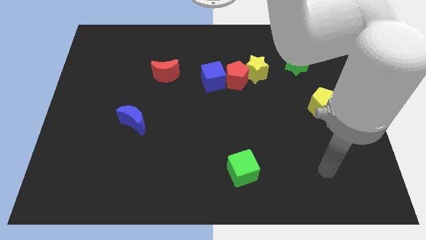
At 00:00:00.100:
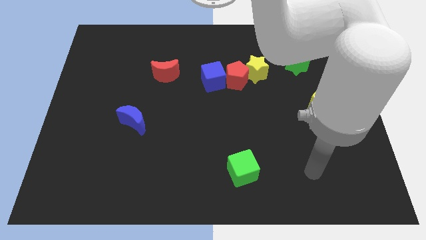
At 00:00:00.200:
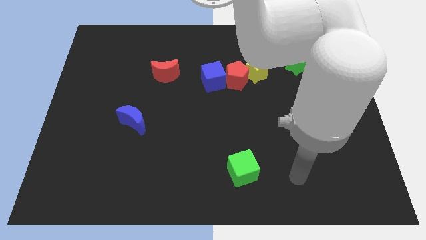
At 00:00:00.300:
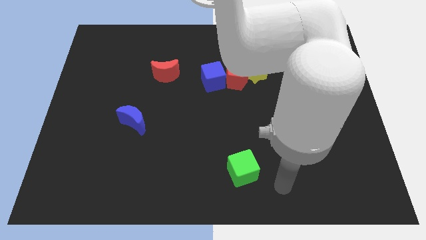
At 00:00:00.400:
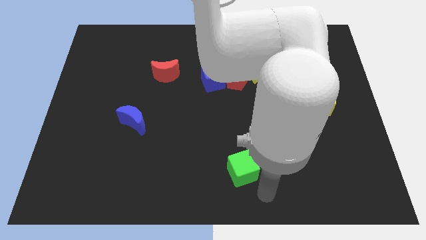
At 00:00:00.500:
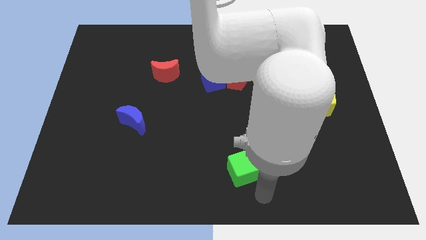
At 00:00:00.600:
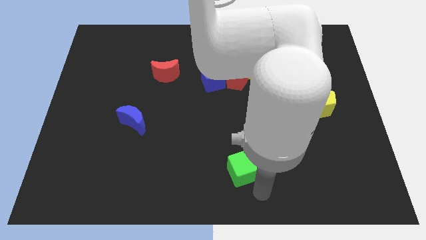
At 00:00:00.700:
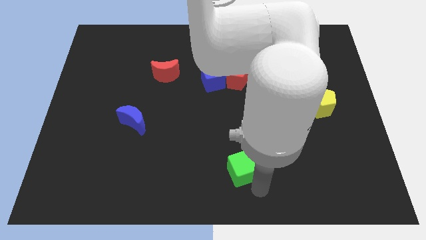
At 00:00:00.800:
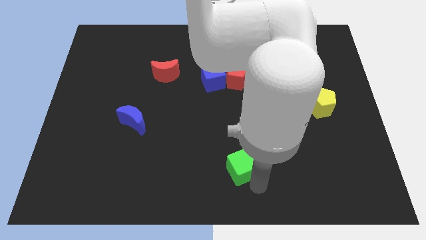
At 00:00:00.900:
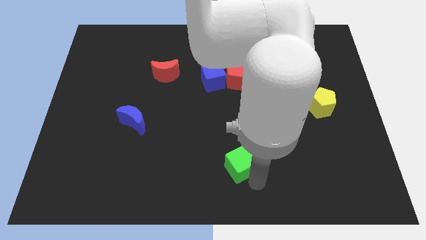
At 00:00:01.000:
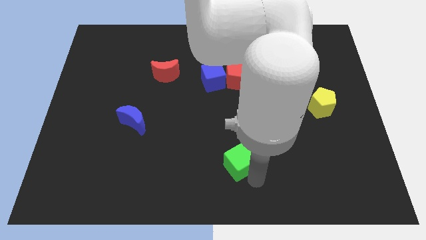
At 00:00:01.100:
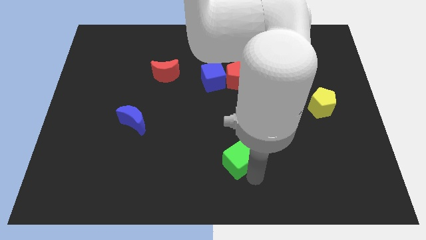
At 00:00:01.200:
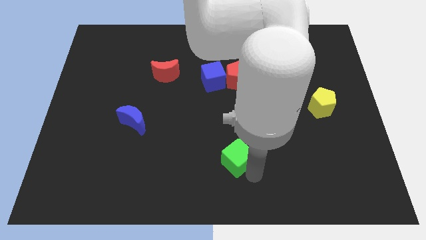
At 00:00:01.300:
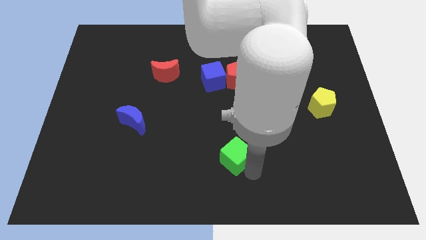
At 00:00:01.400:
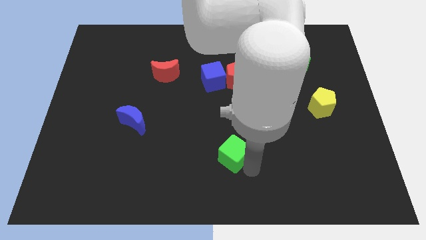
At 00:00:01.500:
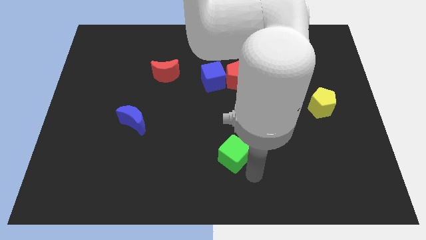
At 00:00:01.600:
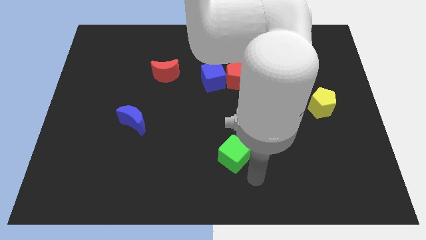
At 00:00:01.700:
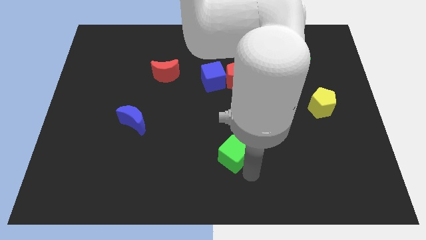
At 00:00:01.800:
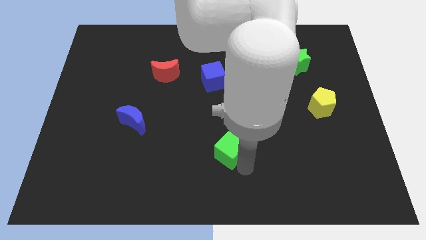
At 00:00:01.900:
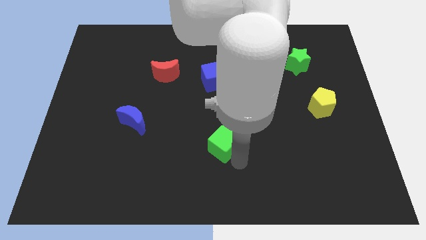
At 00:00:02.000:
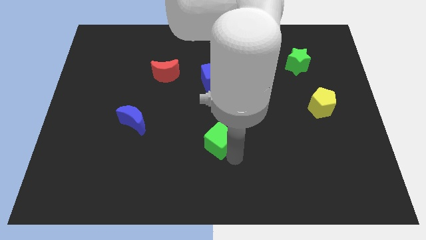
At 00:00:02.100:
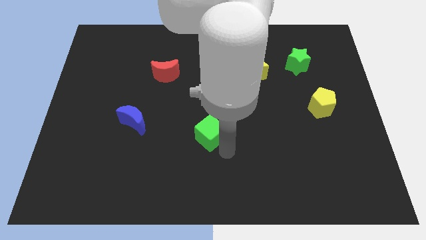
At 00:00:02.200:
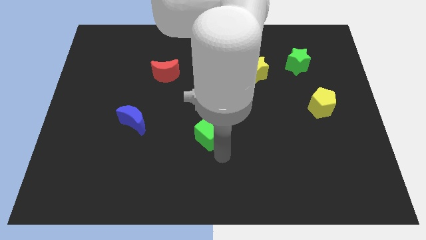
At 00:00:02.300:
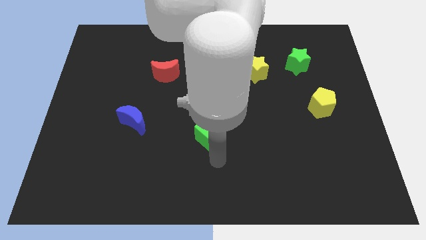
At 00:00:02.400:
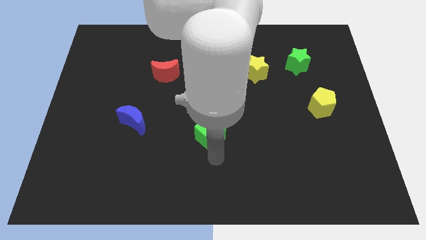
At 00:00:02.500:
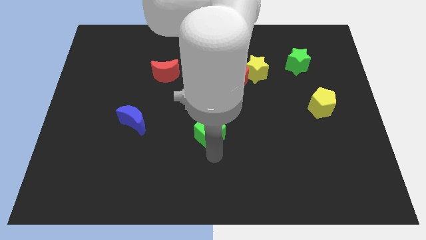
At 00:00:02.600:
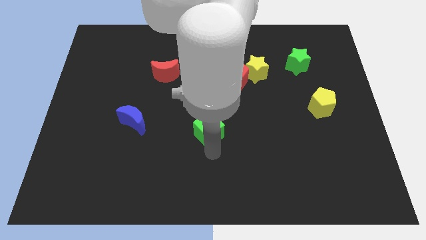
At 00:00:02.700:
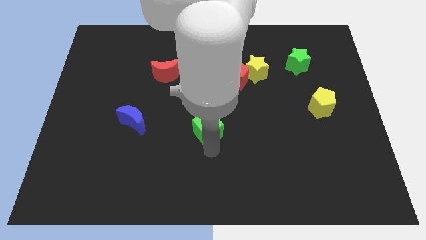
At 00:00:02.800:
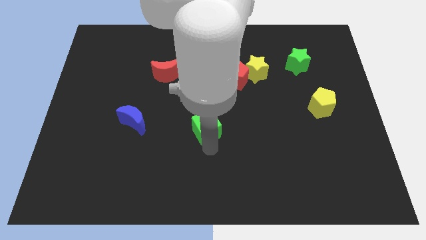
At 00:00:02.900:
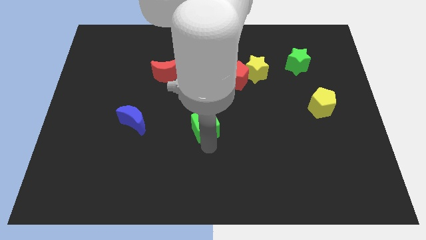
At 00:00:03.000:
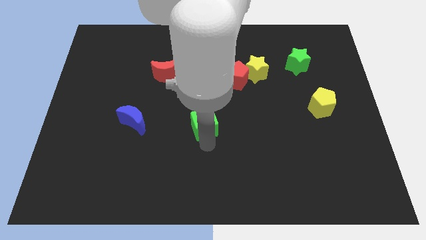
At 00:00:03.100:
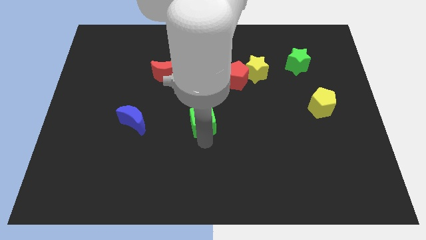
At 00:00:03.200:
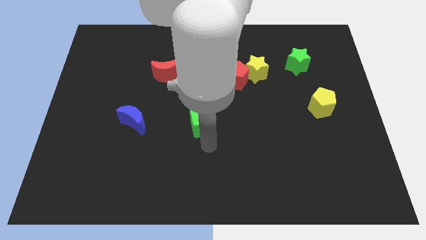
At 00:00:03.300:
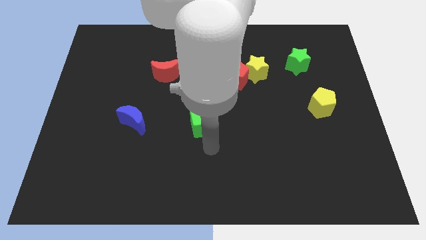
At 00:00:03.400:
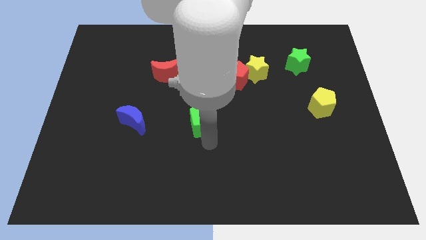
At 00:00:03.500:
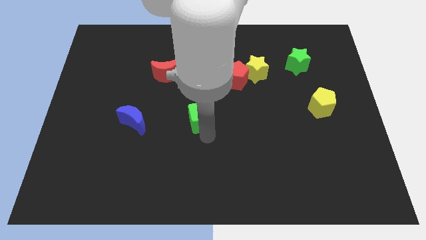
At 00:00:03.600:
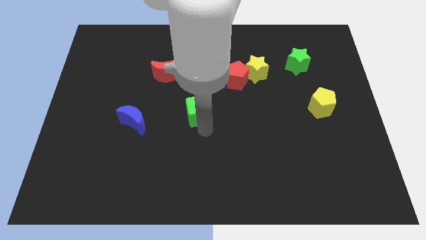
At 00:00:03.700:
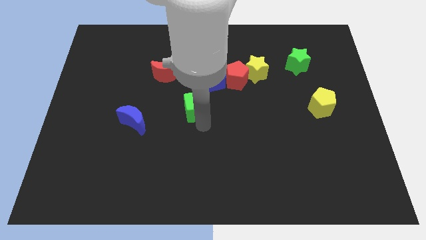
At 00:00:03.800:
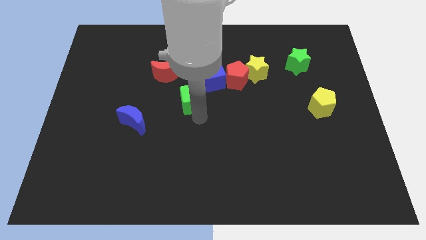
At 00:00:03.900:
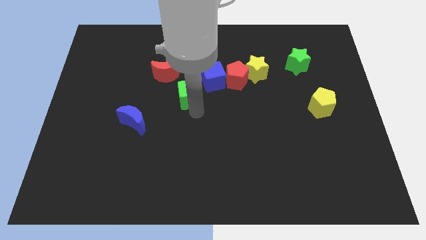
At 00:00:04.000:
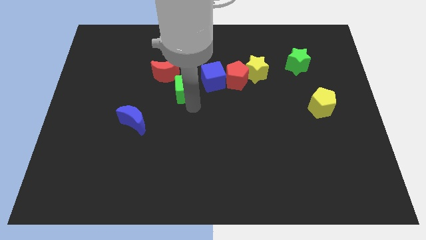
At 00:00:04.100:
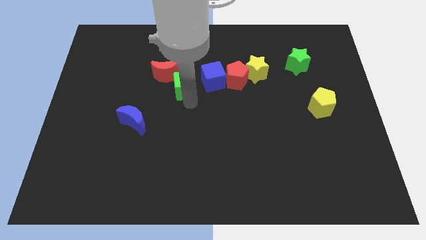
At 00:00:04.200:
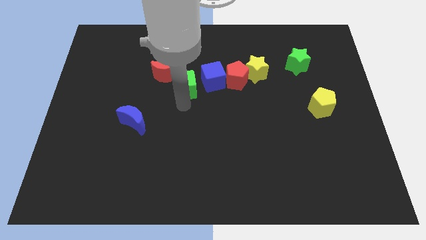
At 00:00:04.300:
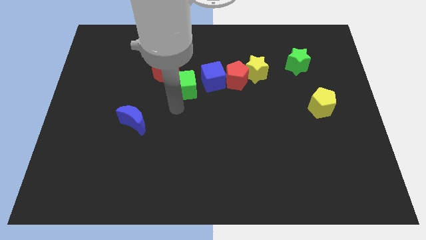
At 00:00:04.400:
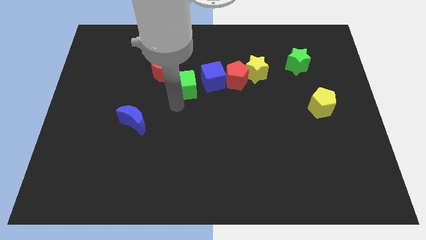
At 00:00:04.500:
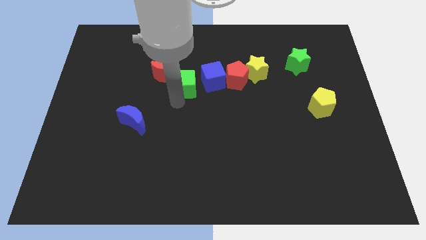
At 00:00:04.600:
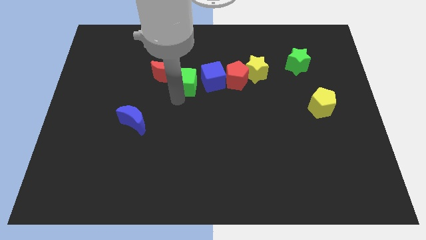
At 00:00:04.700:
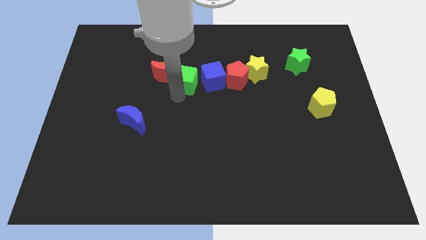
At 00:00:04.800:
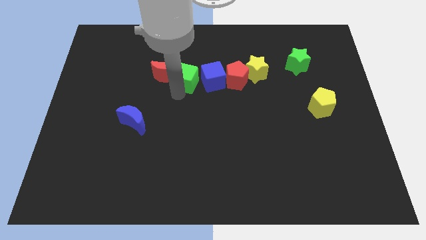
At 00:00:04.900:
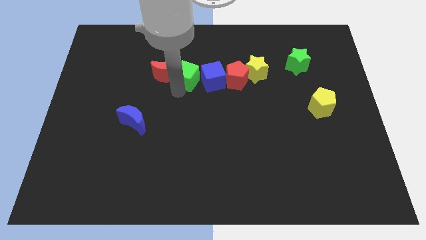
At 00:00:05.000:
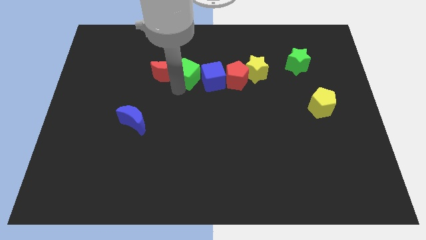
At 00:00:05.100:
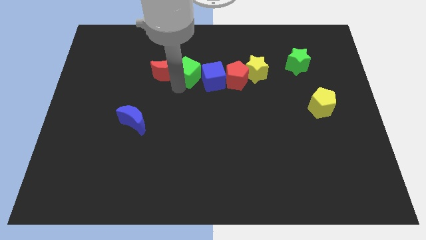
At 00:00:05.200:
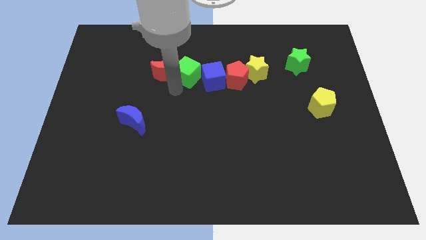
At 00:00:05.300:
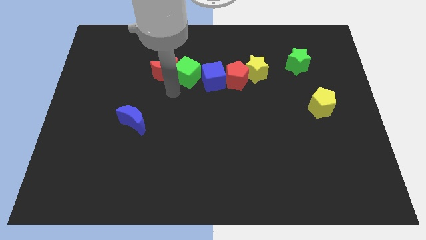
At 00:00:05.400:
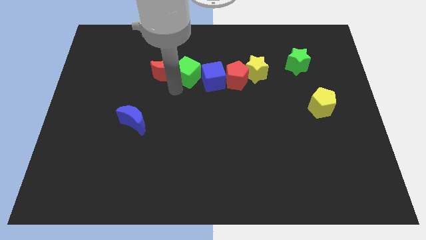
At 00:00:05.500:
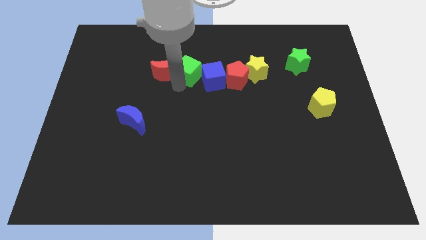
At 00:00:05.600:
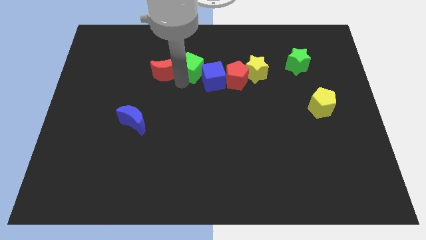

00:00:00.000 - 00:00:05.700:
push the green cube up

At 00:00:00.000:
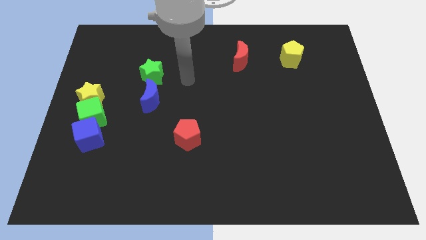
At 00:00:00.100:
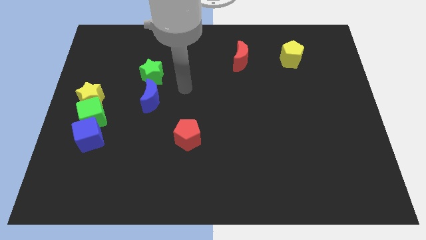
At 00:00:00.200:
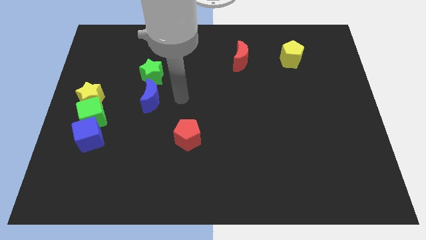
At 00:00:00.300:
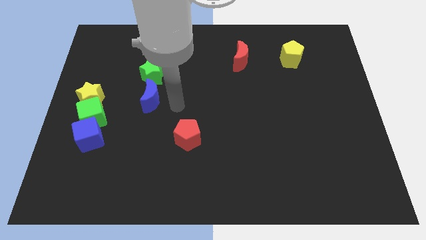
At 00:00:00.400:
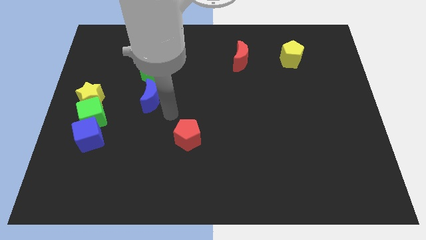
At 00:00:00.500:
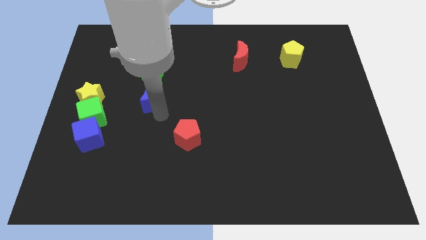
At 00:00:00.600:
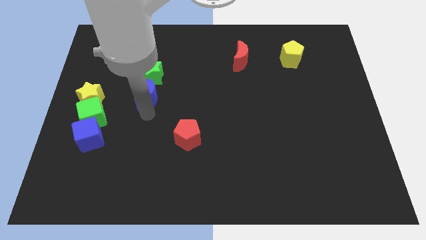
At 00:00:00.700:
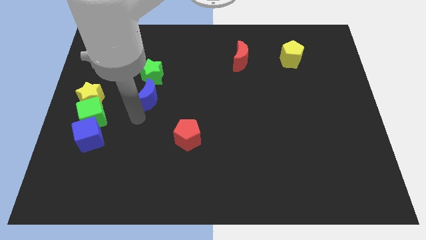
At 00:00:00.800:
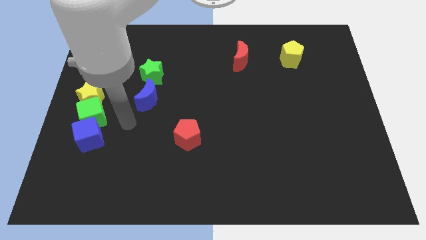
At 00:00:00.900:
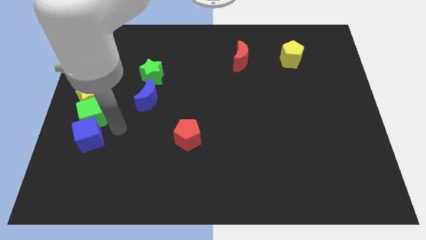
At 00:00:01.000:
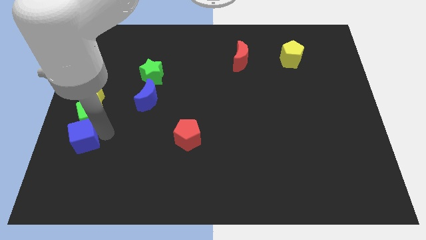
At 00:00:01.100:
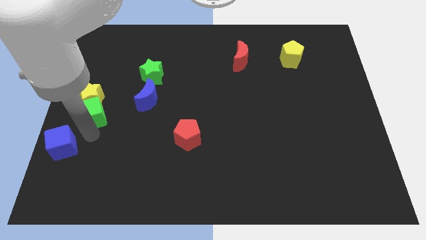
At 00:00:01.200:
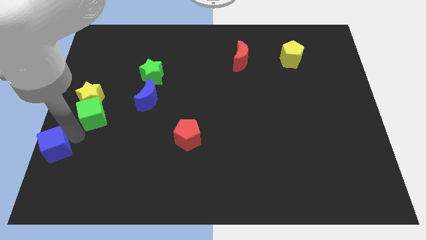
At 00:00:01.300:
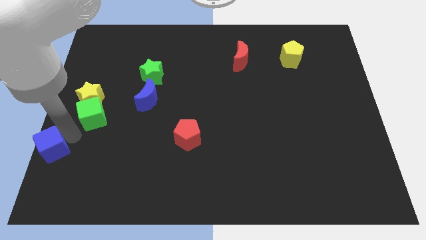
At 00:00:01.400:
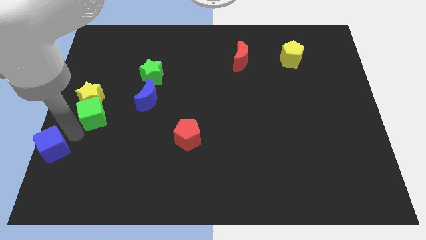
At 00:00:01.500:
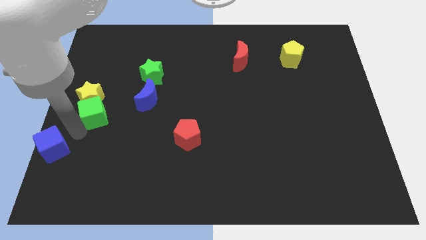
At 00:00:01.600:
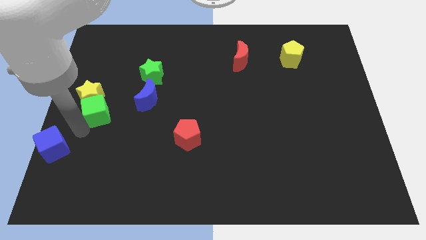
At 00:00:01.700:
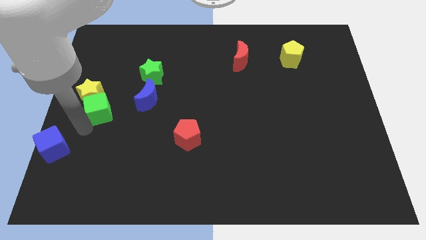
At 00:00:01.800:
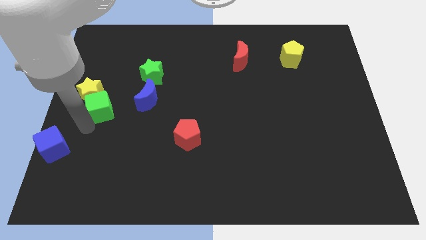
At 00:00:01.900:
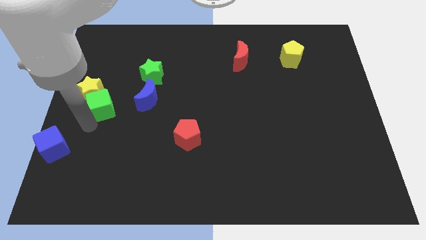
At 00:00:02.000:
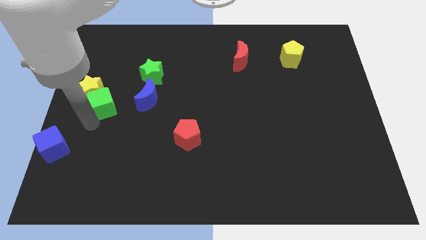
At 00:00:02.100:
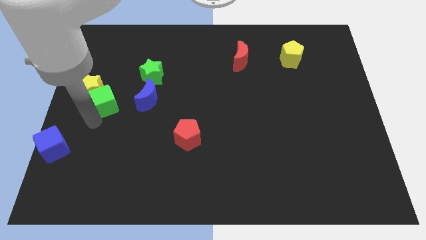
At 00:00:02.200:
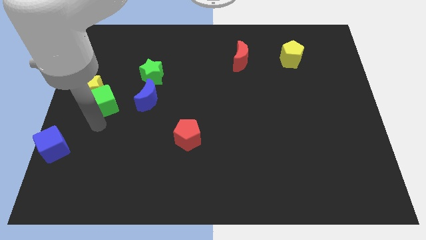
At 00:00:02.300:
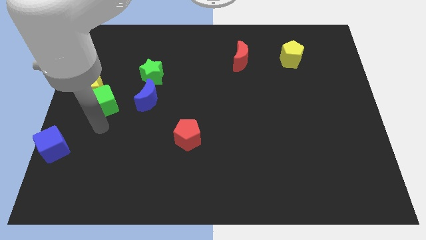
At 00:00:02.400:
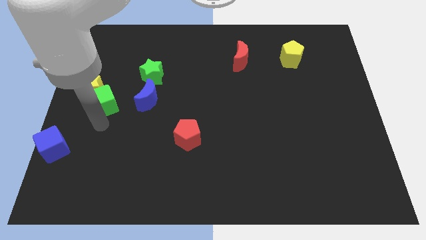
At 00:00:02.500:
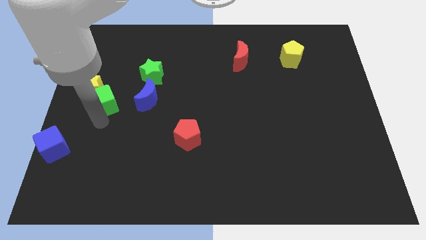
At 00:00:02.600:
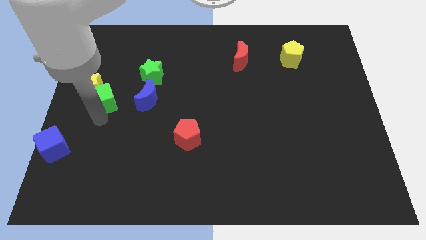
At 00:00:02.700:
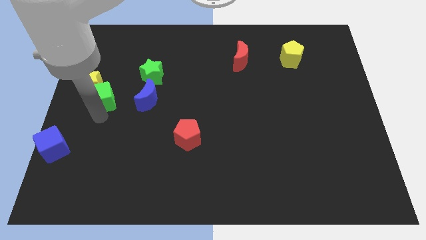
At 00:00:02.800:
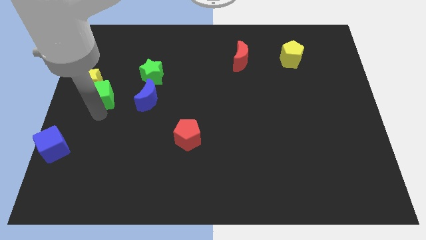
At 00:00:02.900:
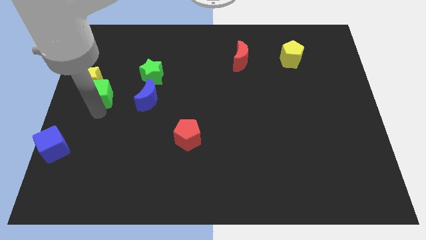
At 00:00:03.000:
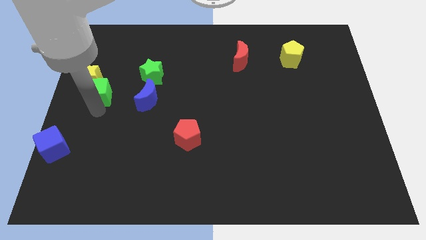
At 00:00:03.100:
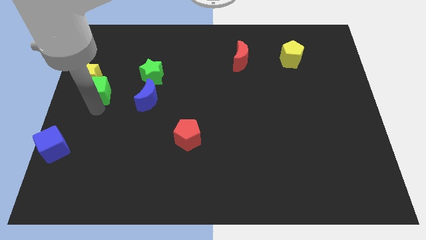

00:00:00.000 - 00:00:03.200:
slide the green cube a little bit up
